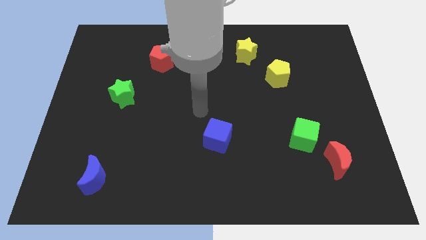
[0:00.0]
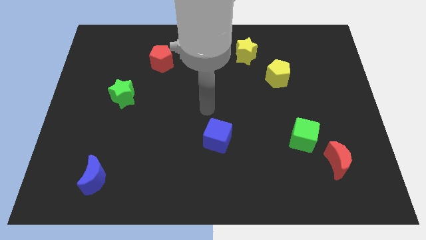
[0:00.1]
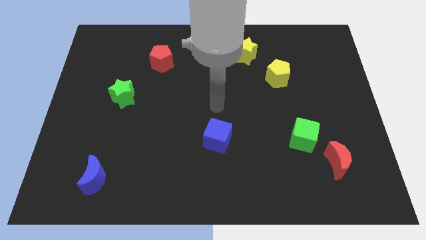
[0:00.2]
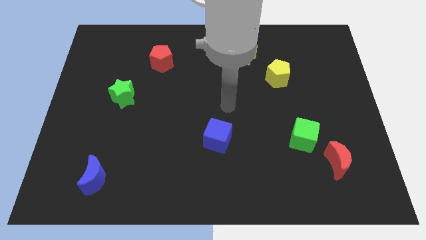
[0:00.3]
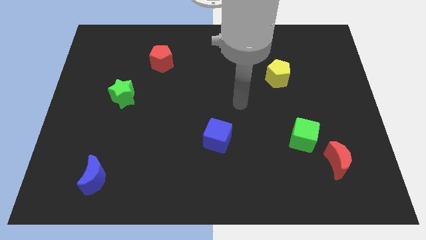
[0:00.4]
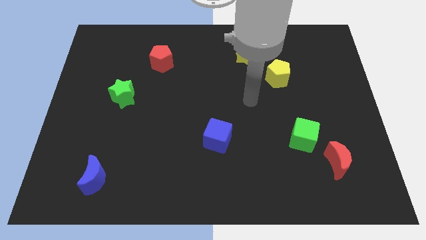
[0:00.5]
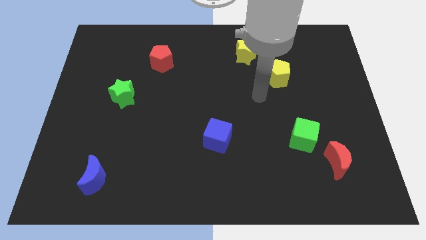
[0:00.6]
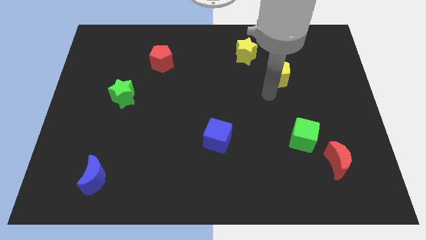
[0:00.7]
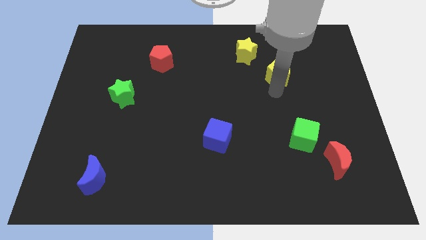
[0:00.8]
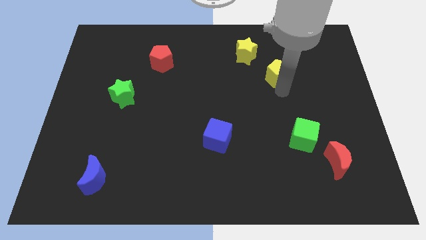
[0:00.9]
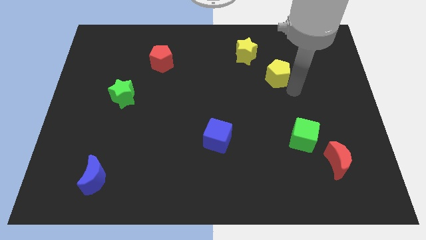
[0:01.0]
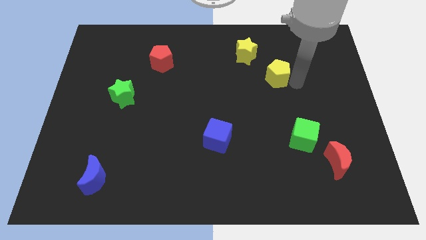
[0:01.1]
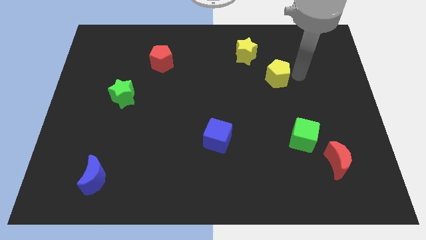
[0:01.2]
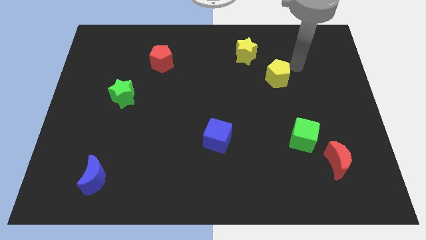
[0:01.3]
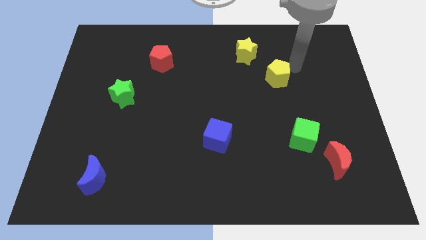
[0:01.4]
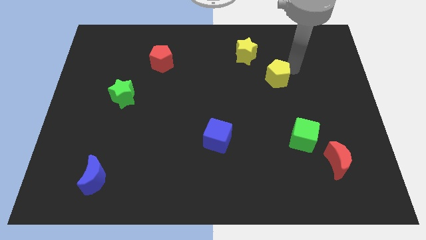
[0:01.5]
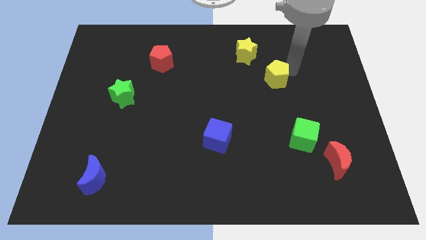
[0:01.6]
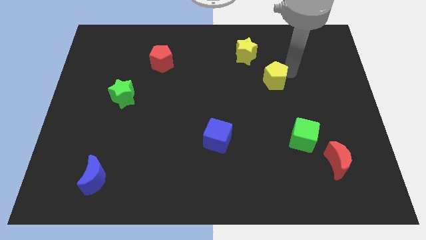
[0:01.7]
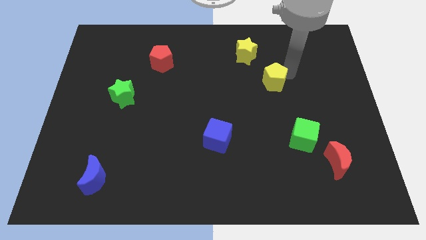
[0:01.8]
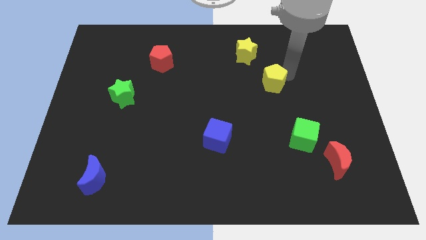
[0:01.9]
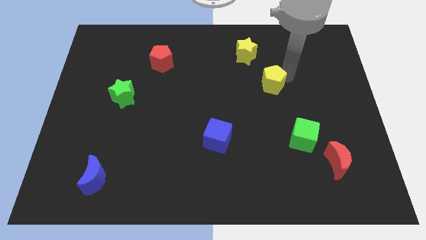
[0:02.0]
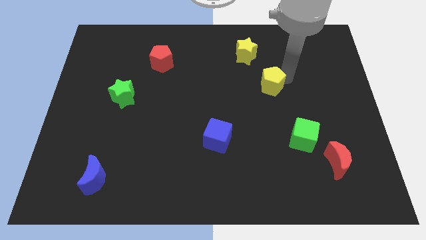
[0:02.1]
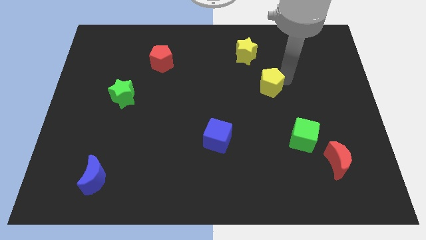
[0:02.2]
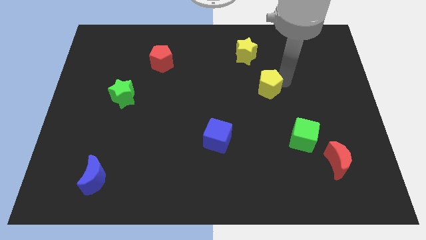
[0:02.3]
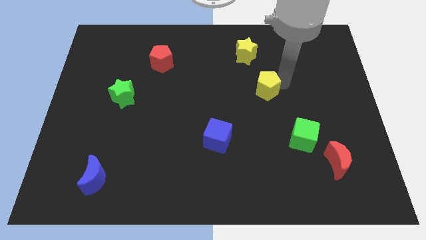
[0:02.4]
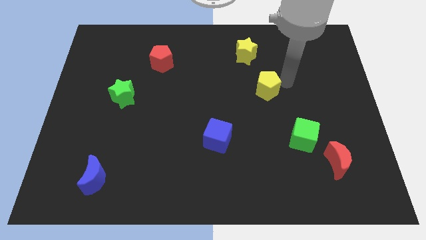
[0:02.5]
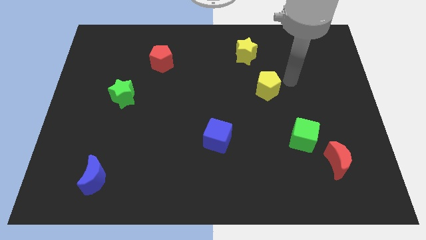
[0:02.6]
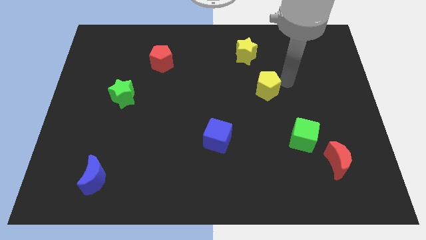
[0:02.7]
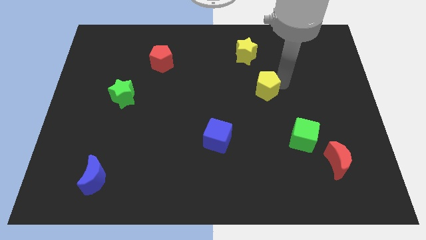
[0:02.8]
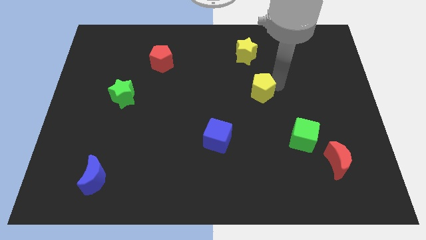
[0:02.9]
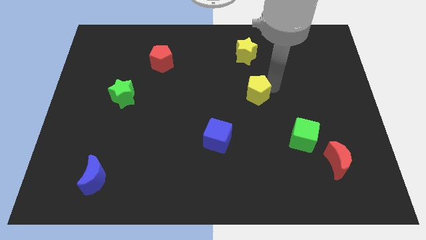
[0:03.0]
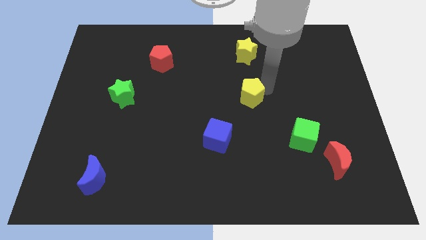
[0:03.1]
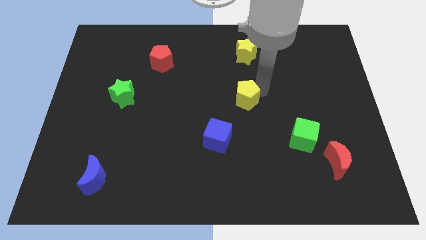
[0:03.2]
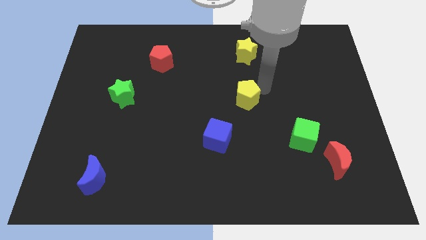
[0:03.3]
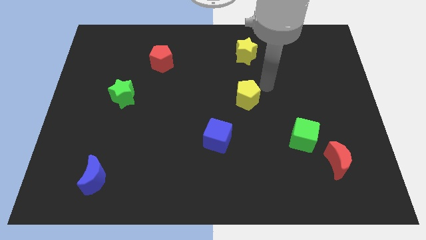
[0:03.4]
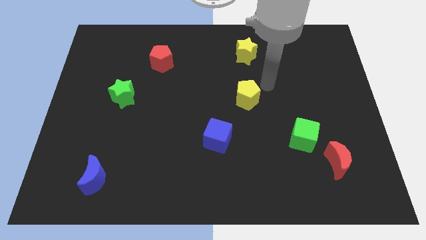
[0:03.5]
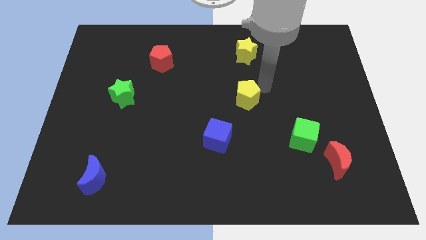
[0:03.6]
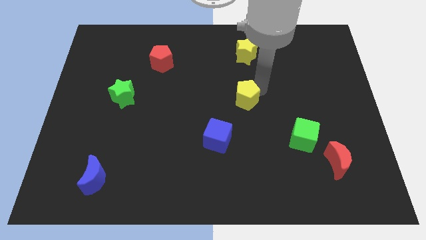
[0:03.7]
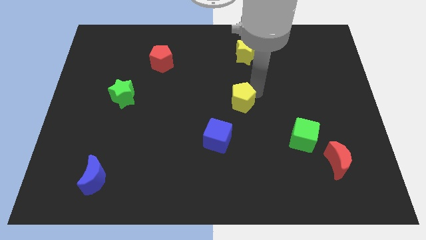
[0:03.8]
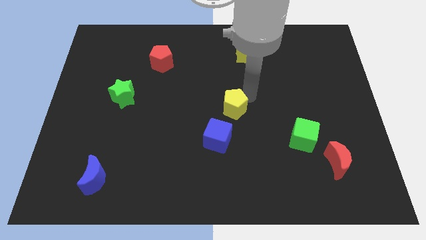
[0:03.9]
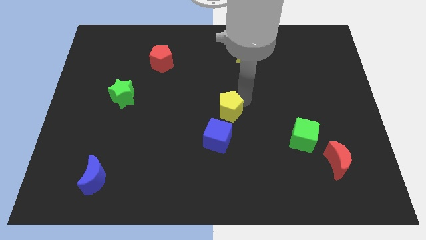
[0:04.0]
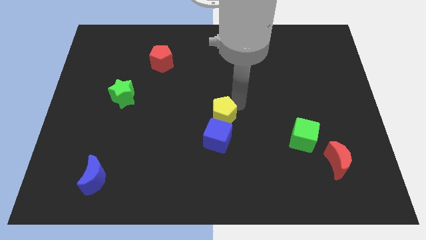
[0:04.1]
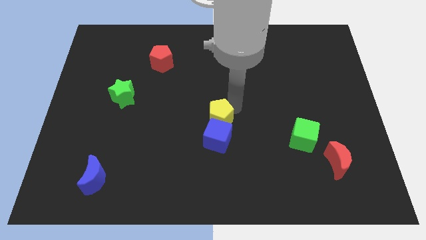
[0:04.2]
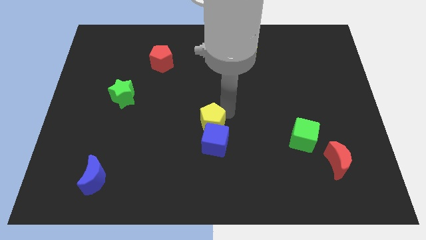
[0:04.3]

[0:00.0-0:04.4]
push the yellow pentagon down and left diagonally

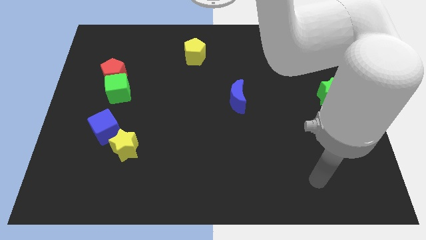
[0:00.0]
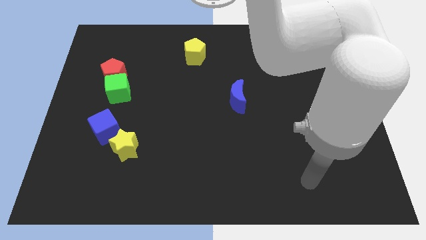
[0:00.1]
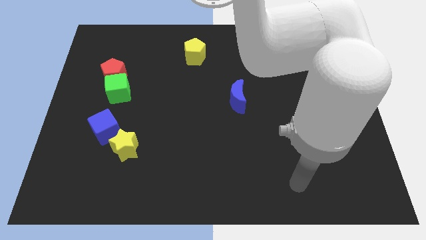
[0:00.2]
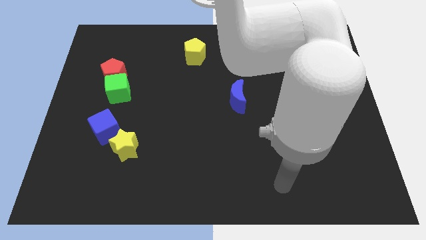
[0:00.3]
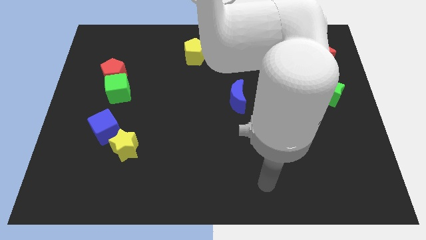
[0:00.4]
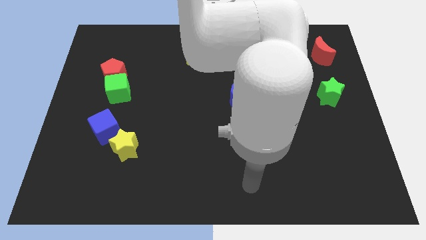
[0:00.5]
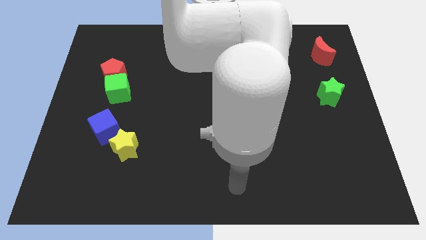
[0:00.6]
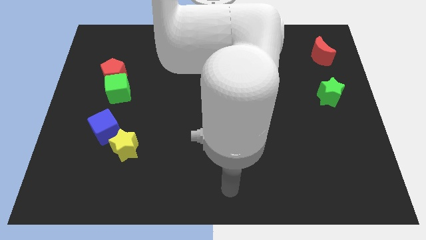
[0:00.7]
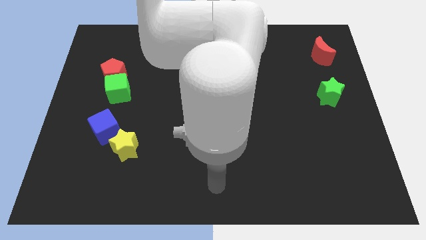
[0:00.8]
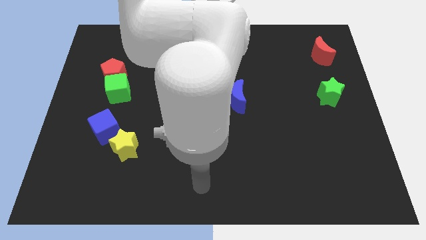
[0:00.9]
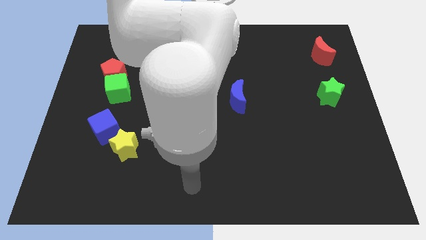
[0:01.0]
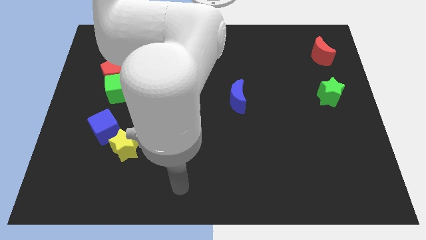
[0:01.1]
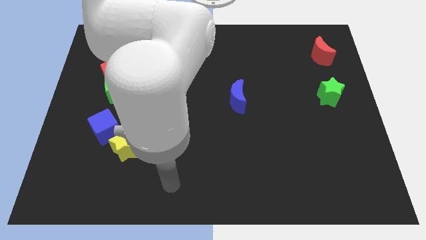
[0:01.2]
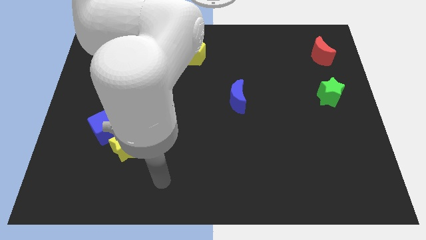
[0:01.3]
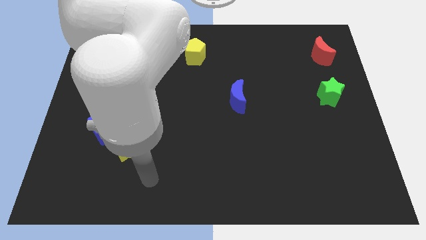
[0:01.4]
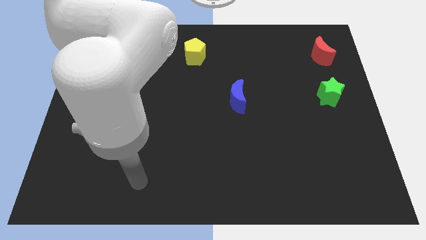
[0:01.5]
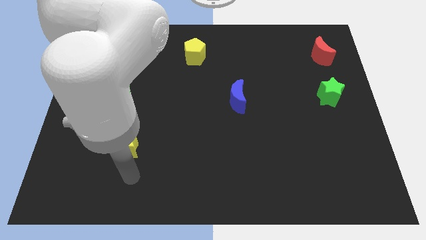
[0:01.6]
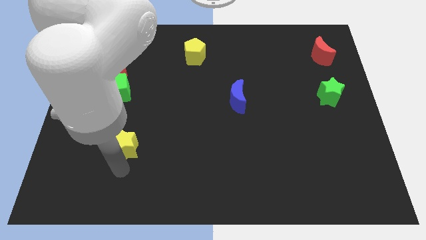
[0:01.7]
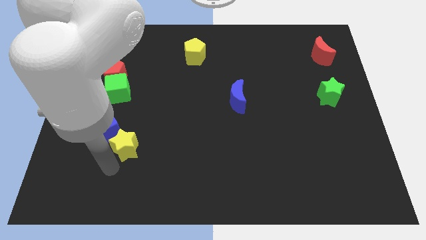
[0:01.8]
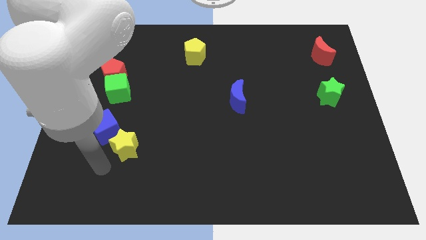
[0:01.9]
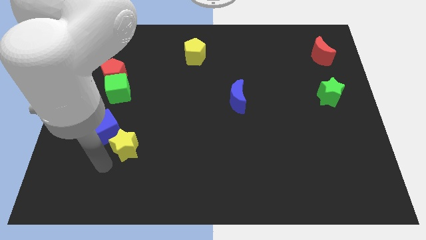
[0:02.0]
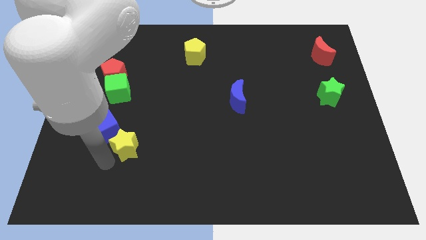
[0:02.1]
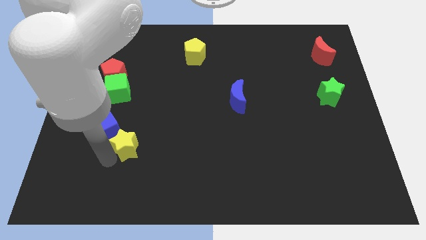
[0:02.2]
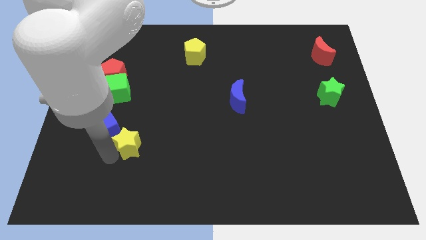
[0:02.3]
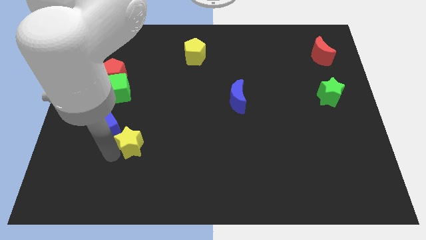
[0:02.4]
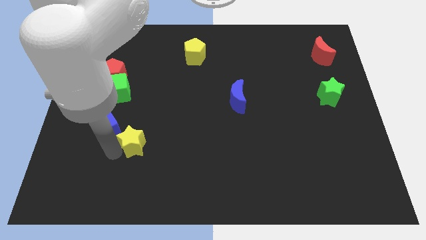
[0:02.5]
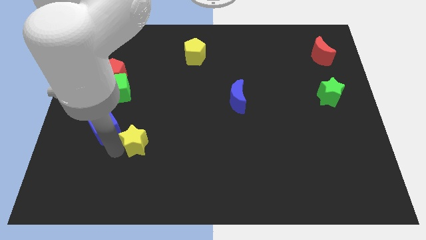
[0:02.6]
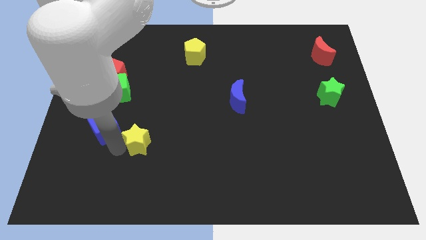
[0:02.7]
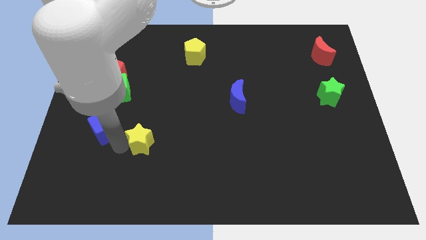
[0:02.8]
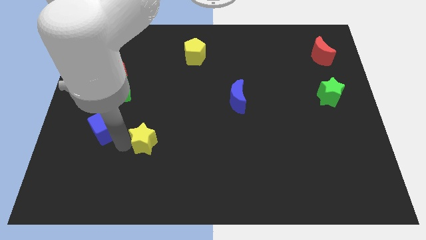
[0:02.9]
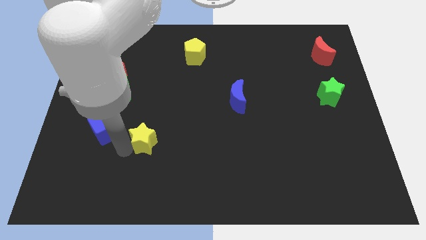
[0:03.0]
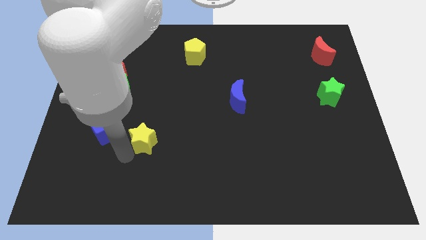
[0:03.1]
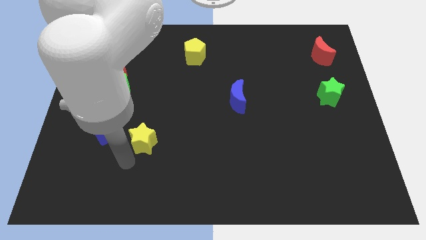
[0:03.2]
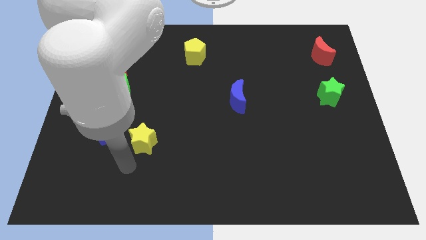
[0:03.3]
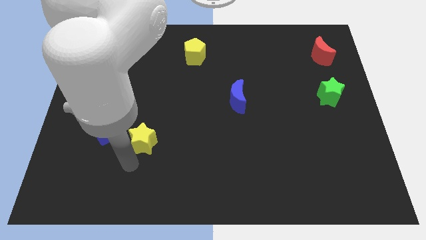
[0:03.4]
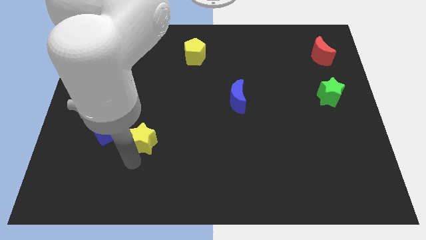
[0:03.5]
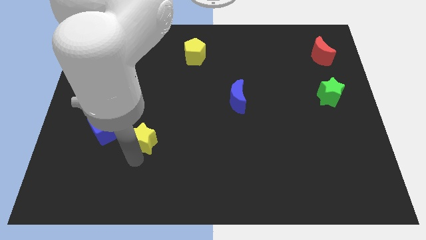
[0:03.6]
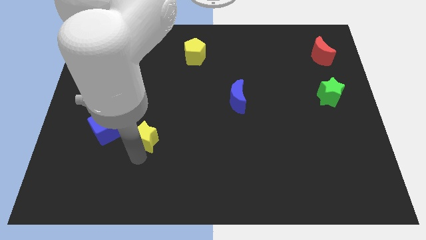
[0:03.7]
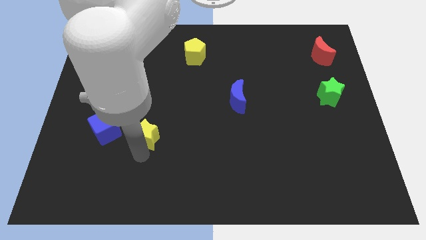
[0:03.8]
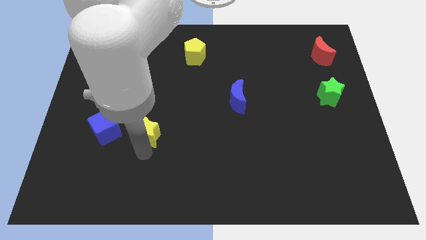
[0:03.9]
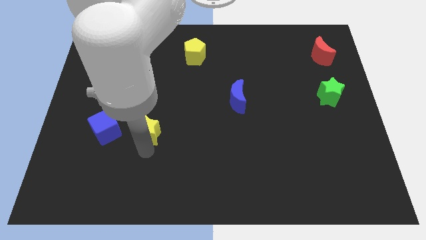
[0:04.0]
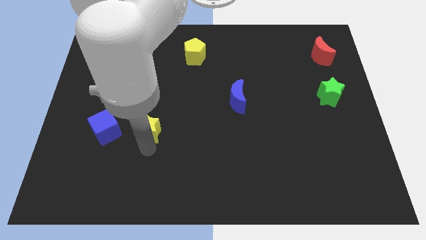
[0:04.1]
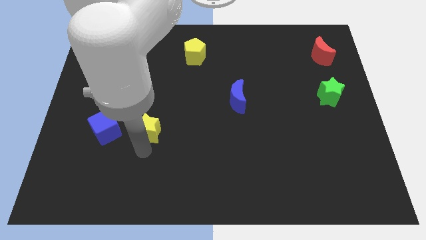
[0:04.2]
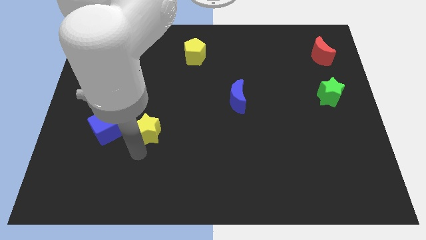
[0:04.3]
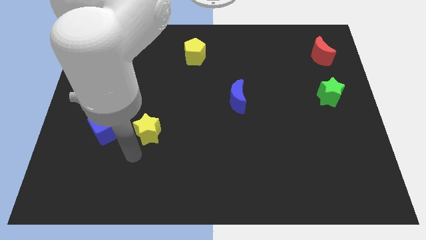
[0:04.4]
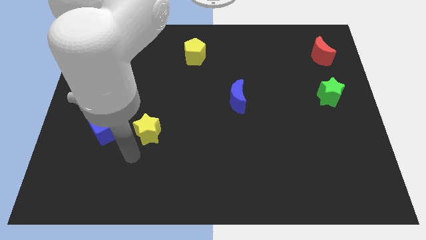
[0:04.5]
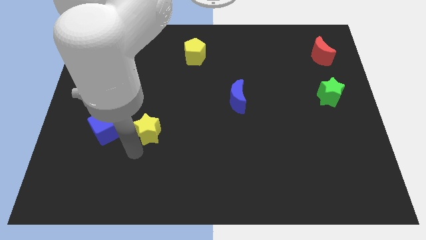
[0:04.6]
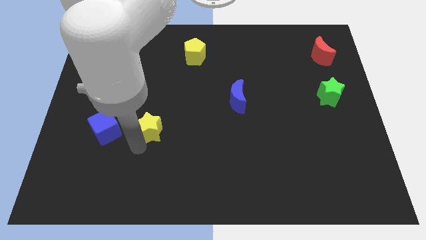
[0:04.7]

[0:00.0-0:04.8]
slightly move the yellow star diagonally up and to the right
